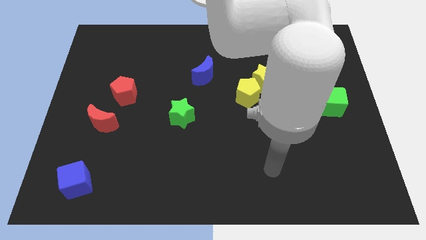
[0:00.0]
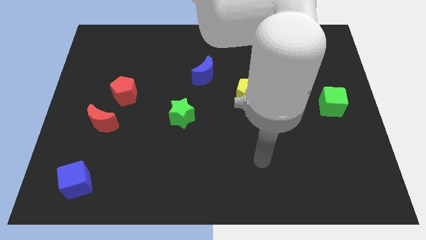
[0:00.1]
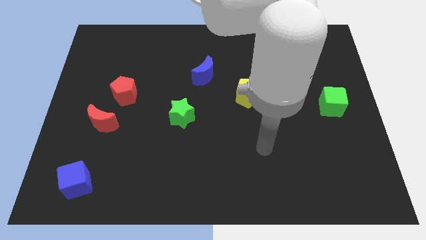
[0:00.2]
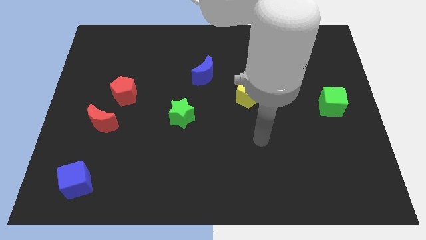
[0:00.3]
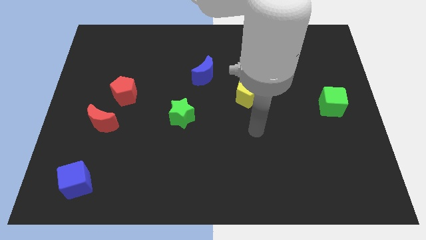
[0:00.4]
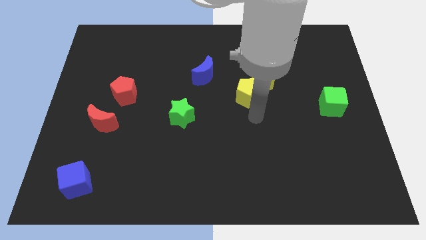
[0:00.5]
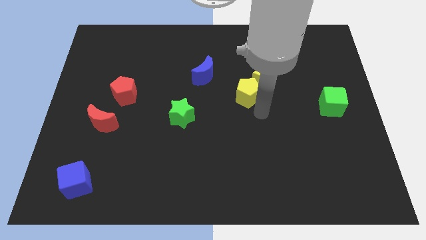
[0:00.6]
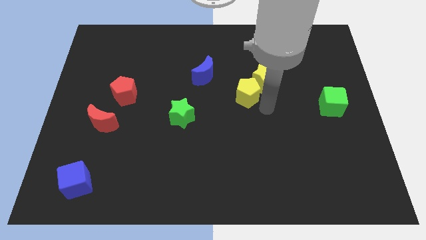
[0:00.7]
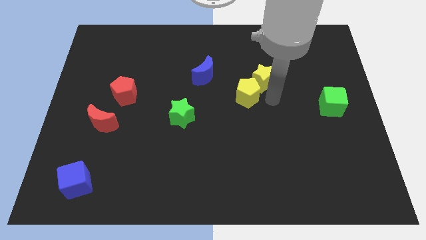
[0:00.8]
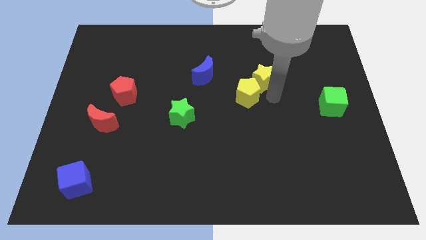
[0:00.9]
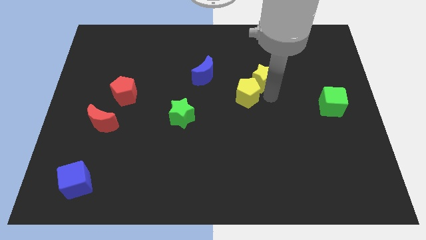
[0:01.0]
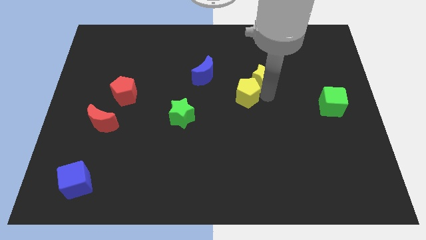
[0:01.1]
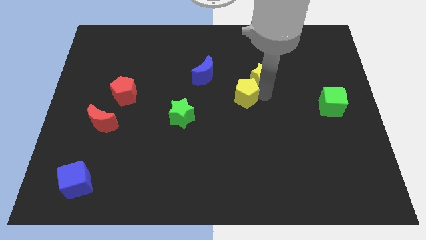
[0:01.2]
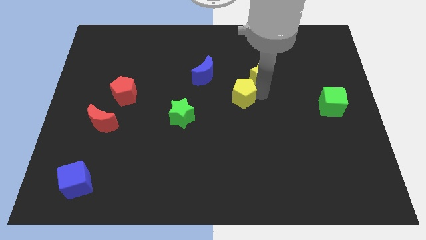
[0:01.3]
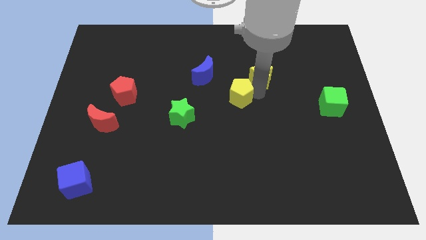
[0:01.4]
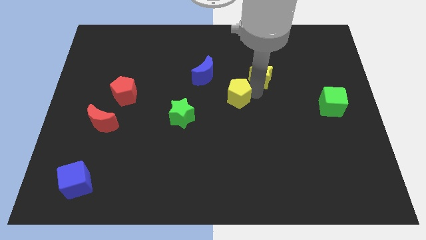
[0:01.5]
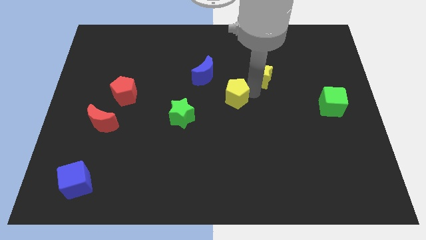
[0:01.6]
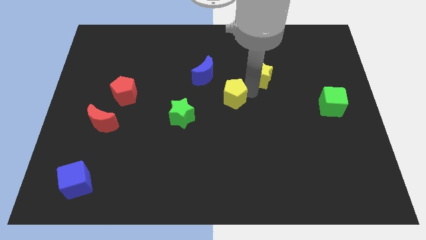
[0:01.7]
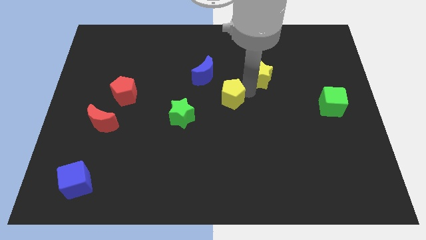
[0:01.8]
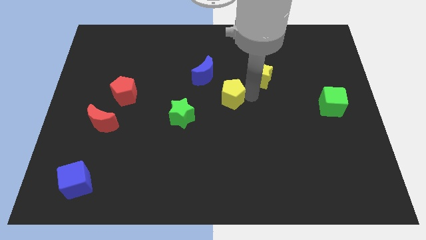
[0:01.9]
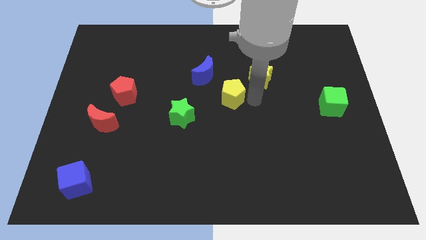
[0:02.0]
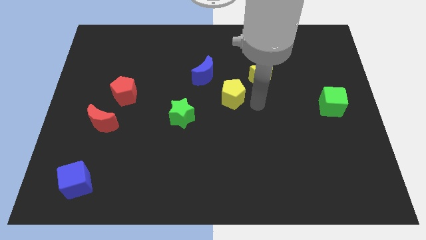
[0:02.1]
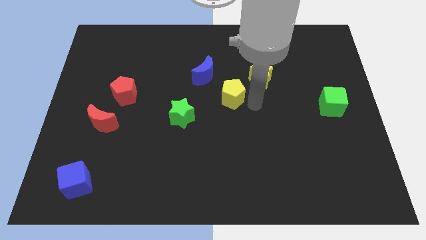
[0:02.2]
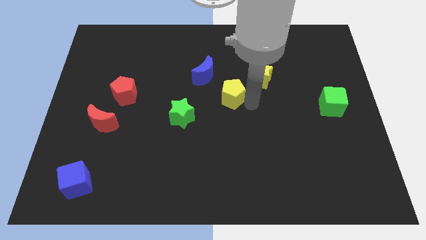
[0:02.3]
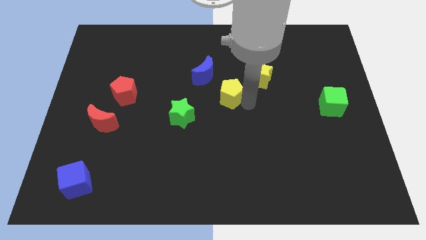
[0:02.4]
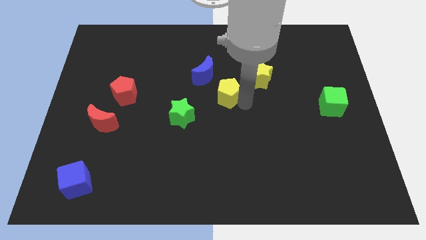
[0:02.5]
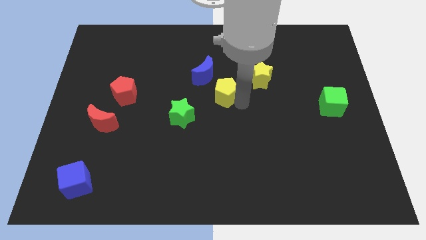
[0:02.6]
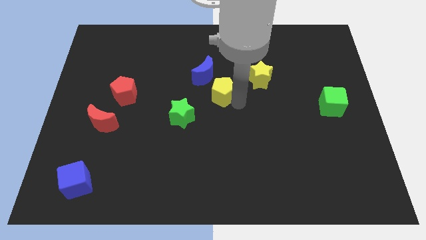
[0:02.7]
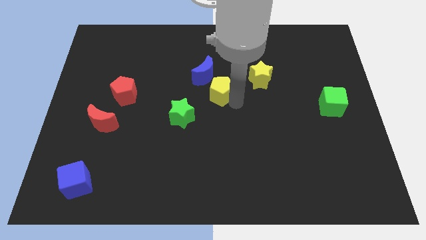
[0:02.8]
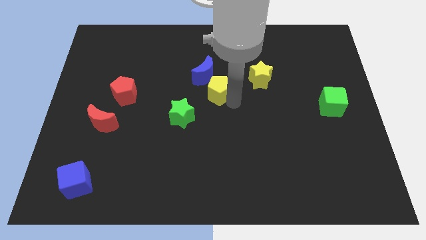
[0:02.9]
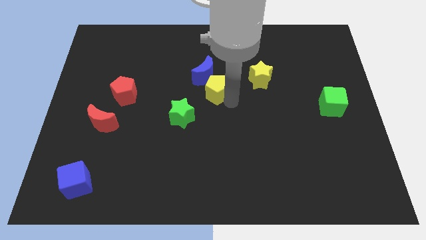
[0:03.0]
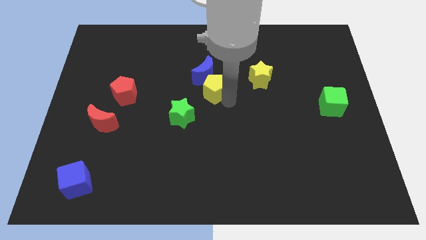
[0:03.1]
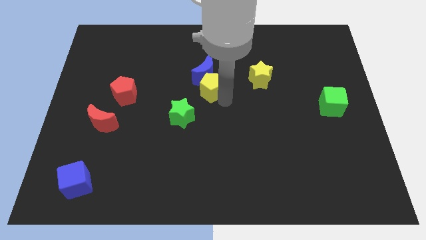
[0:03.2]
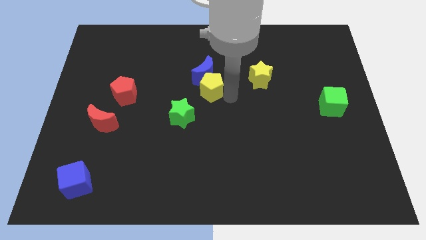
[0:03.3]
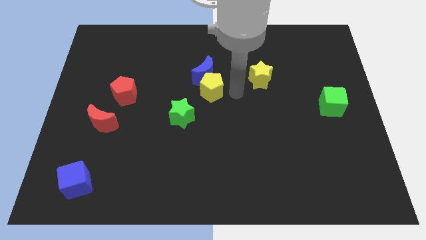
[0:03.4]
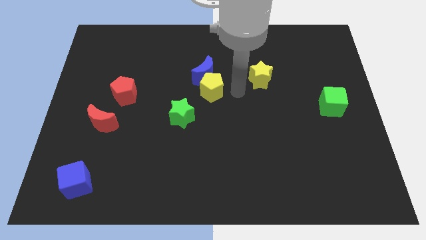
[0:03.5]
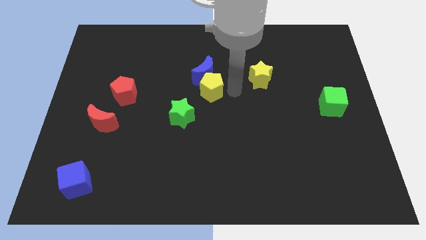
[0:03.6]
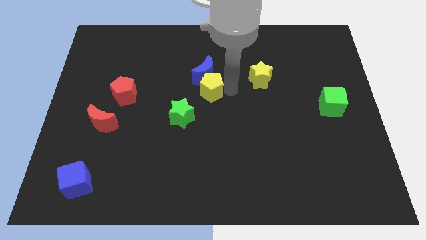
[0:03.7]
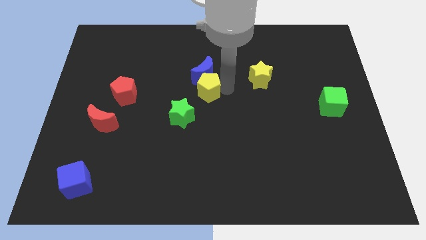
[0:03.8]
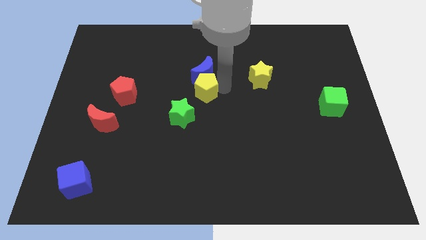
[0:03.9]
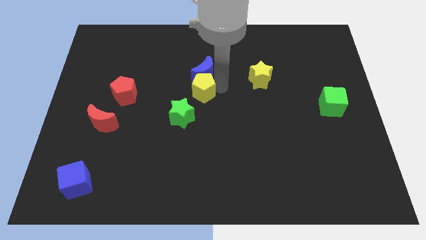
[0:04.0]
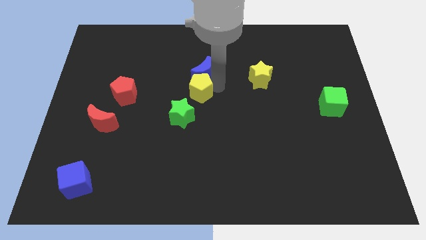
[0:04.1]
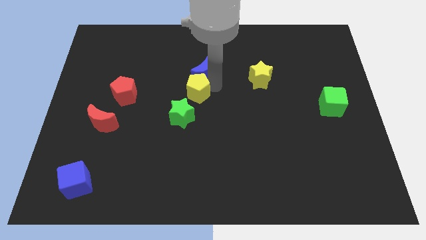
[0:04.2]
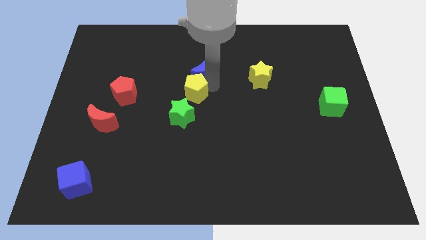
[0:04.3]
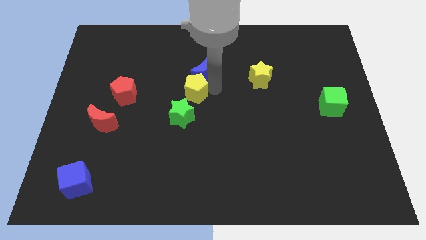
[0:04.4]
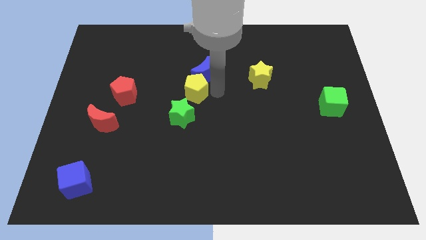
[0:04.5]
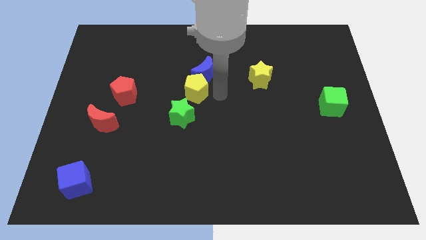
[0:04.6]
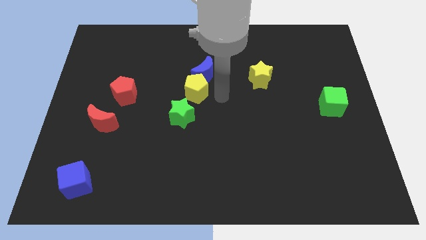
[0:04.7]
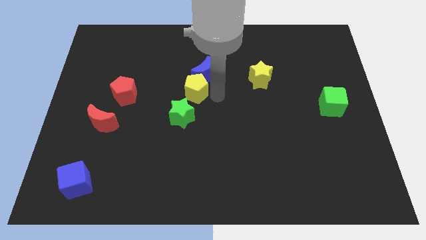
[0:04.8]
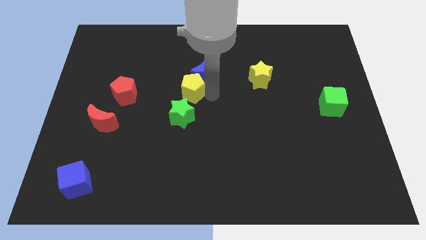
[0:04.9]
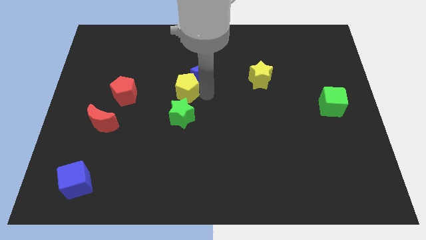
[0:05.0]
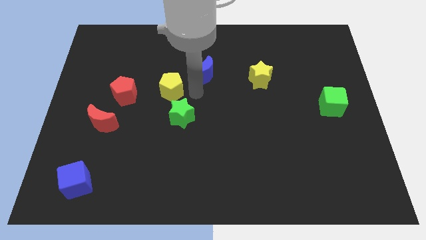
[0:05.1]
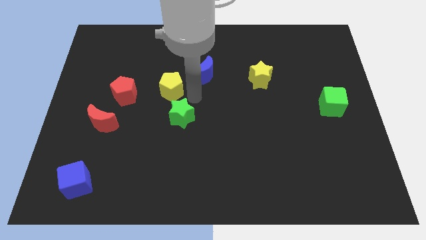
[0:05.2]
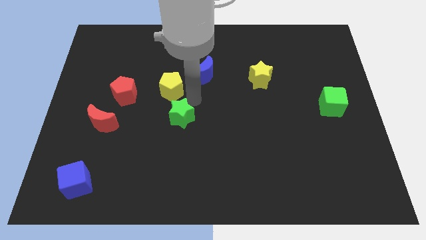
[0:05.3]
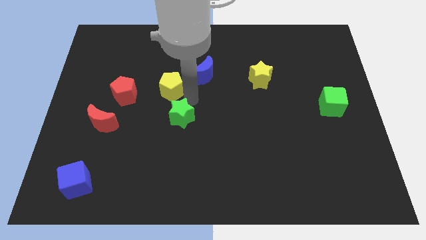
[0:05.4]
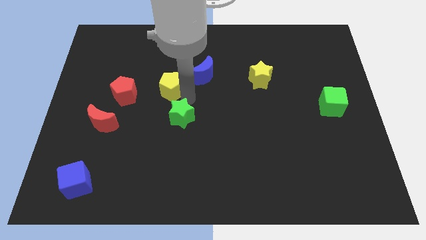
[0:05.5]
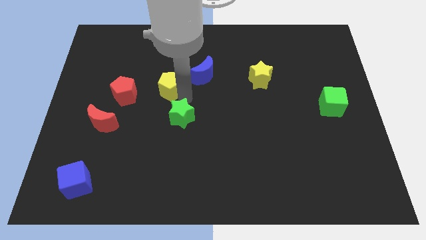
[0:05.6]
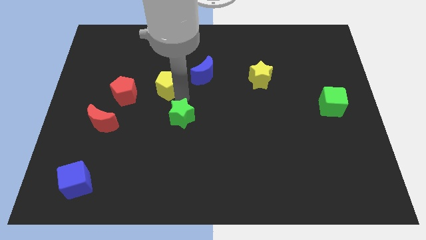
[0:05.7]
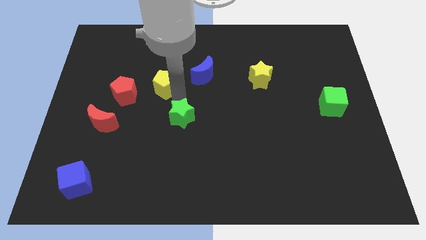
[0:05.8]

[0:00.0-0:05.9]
slide the yellow pentagon diagonally up and to the right of the red pentagon

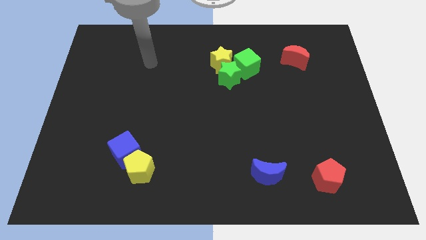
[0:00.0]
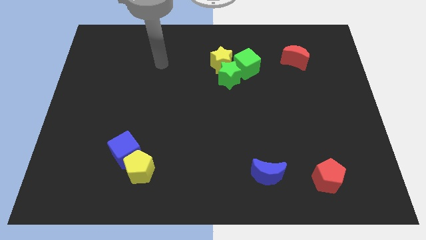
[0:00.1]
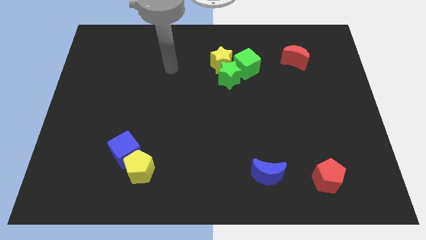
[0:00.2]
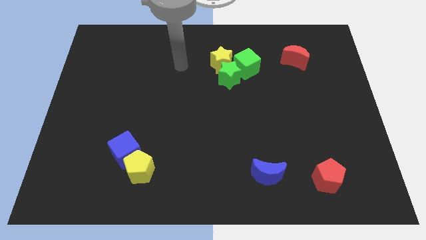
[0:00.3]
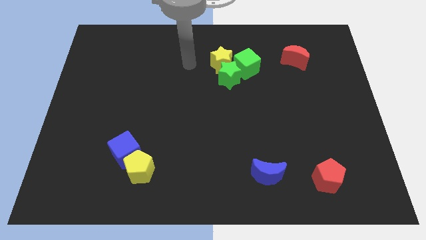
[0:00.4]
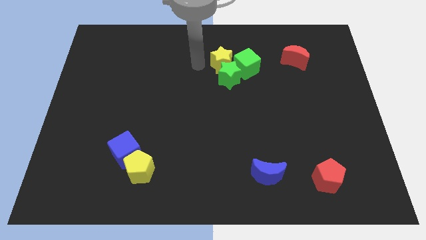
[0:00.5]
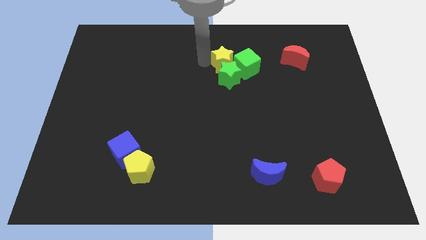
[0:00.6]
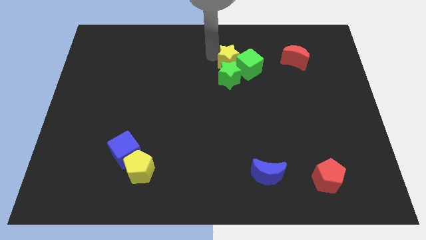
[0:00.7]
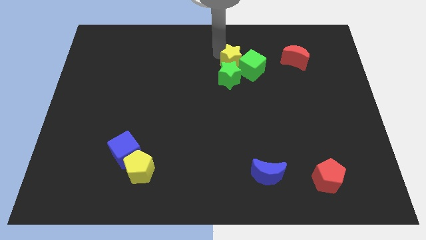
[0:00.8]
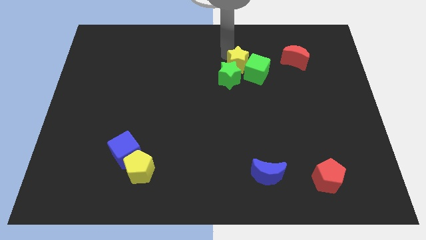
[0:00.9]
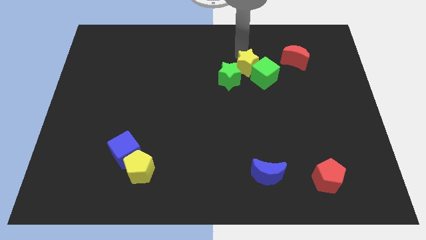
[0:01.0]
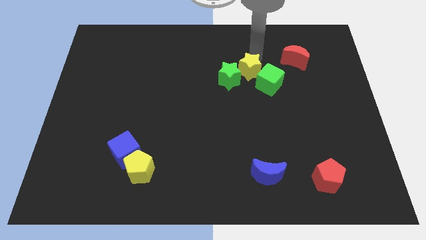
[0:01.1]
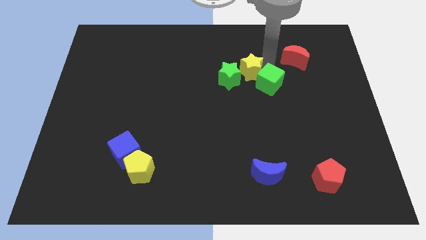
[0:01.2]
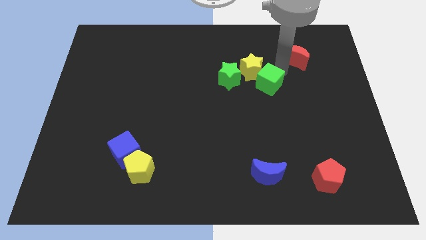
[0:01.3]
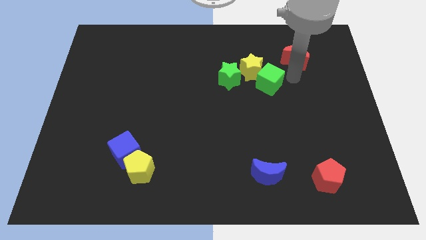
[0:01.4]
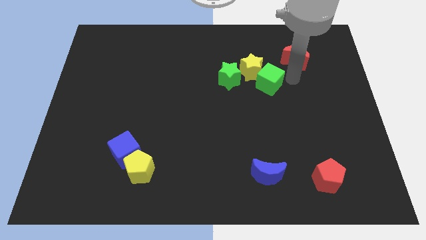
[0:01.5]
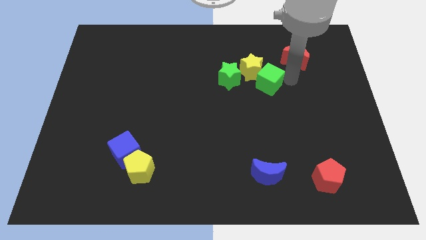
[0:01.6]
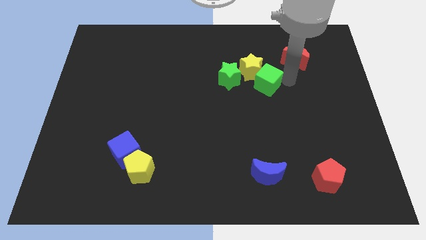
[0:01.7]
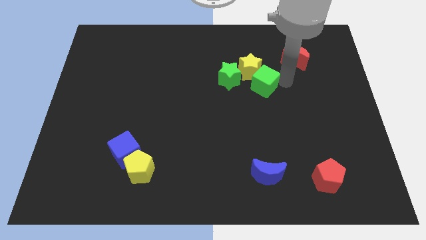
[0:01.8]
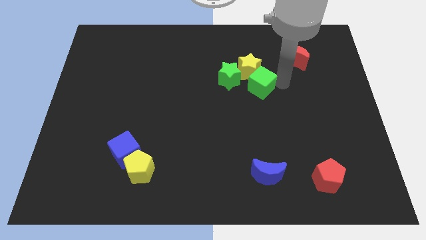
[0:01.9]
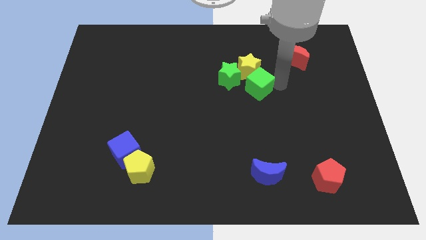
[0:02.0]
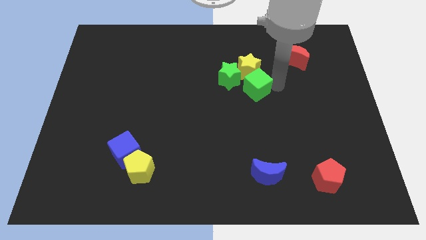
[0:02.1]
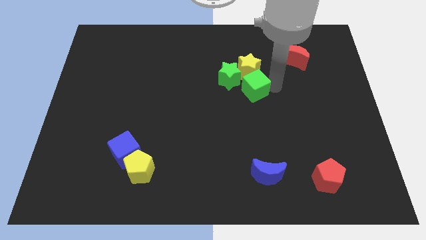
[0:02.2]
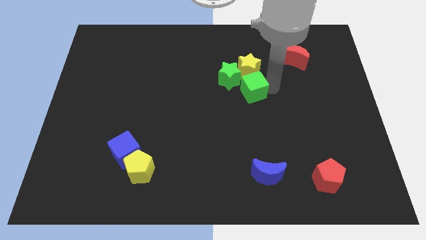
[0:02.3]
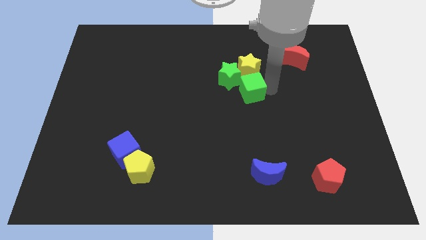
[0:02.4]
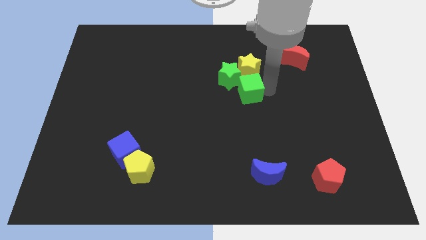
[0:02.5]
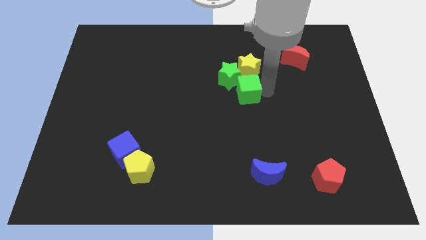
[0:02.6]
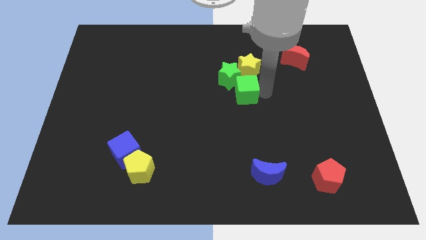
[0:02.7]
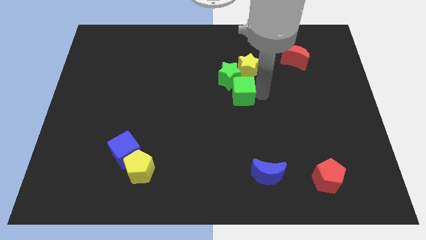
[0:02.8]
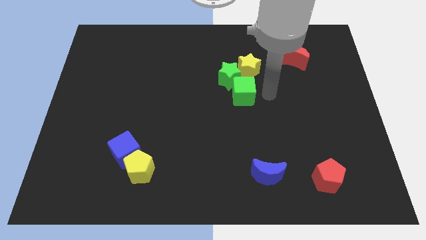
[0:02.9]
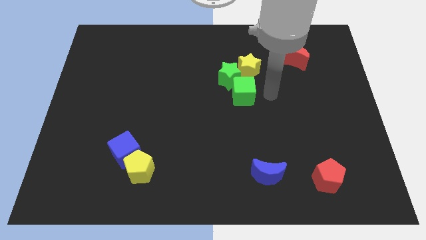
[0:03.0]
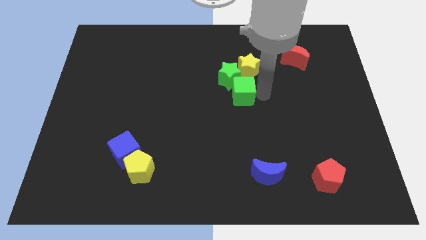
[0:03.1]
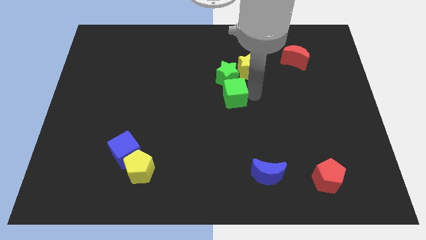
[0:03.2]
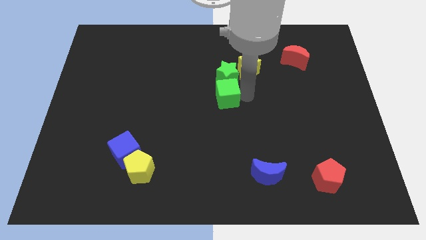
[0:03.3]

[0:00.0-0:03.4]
push the green cube to the bottom left side of the green star
